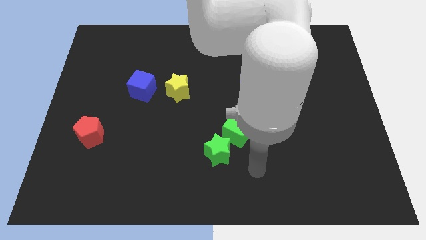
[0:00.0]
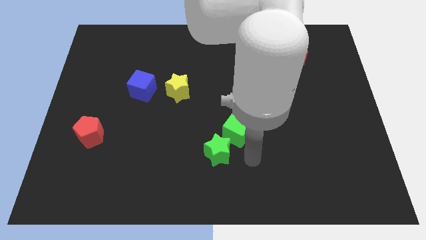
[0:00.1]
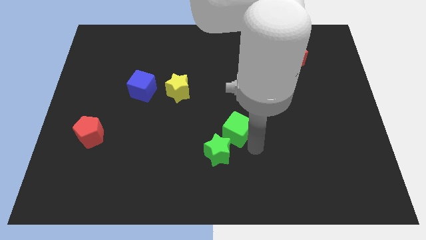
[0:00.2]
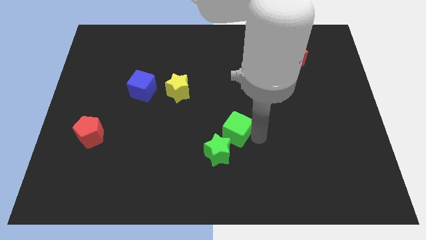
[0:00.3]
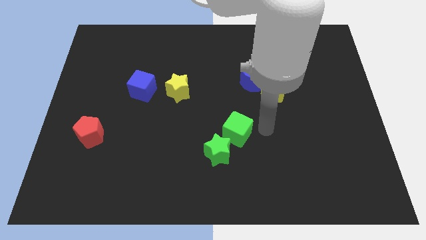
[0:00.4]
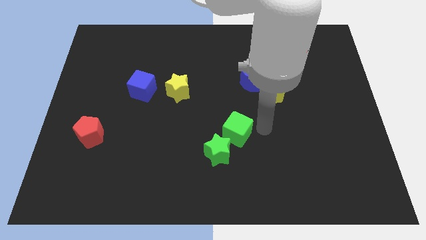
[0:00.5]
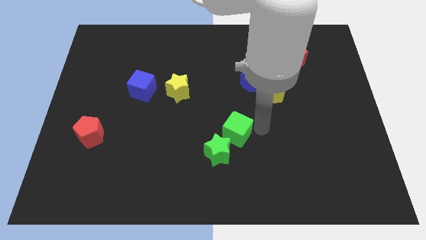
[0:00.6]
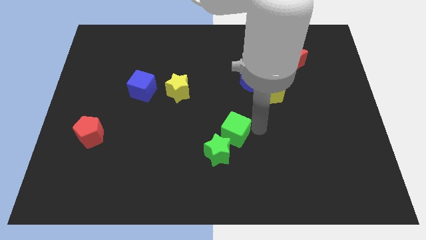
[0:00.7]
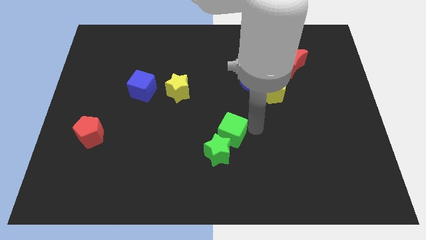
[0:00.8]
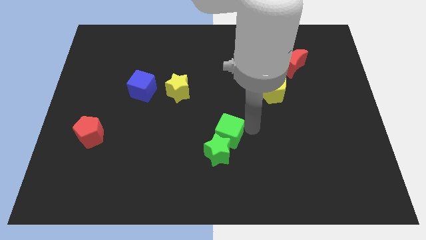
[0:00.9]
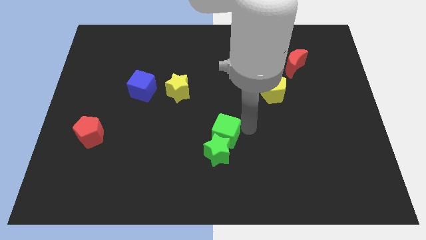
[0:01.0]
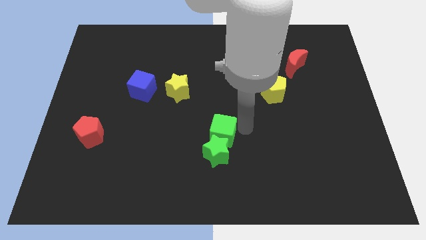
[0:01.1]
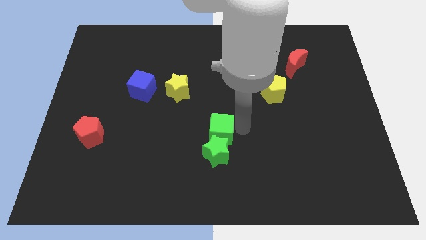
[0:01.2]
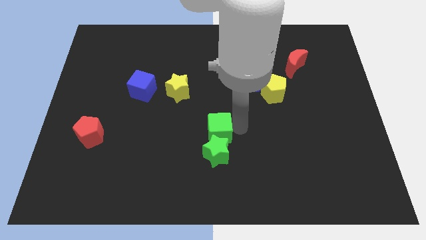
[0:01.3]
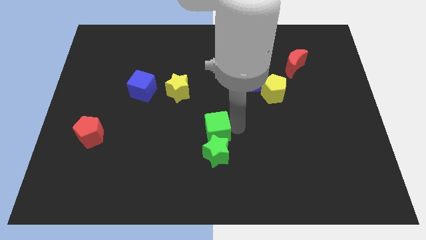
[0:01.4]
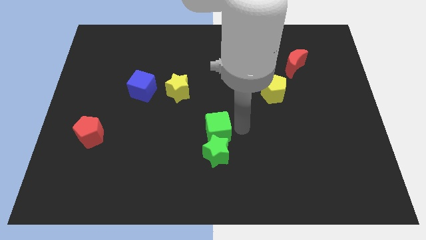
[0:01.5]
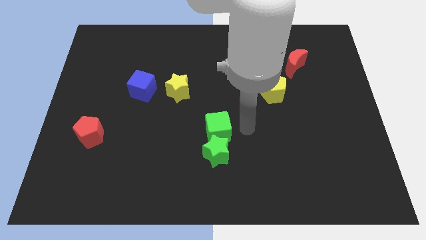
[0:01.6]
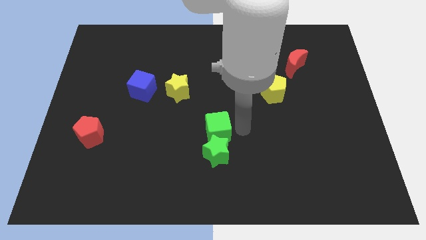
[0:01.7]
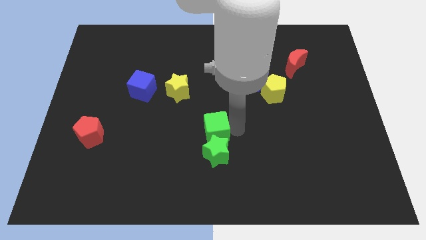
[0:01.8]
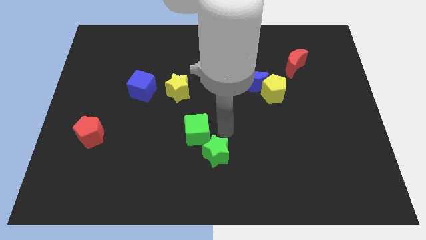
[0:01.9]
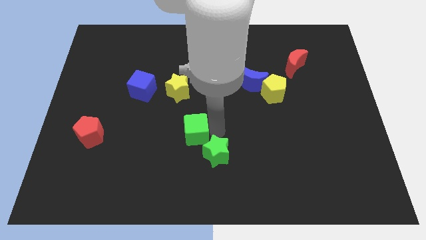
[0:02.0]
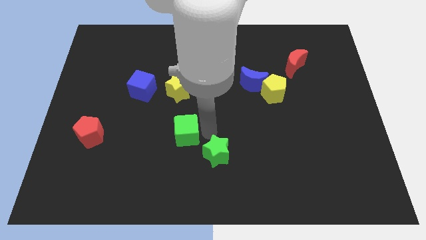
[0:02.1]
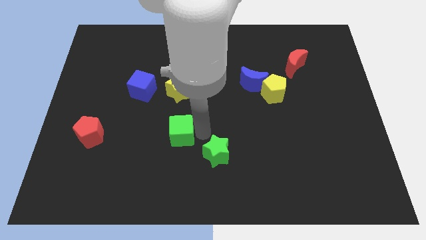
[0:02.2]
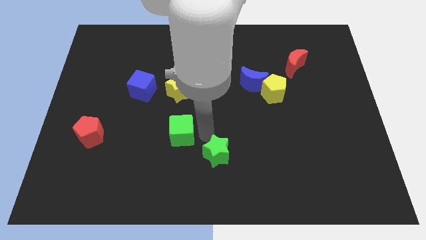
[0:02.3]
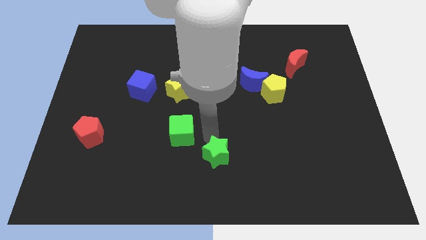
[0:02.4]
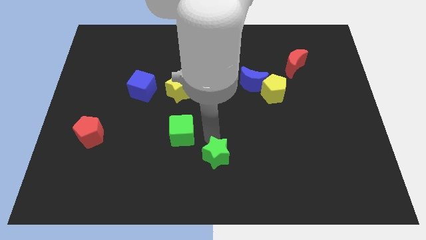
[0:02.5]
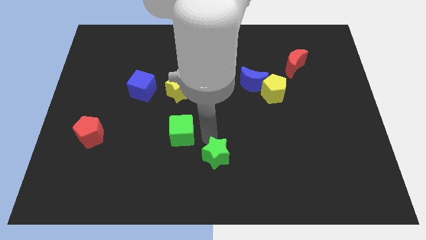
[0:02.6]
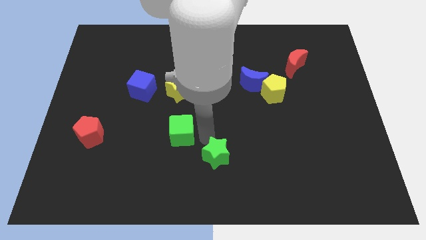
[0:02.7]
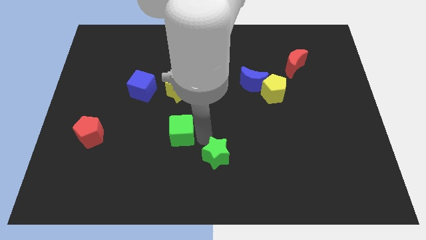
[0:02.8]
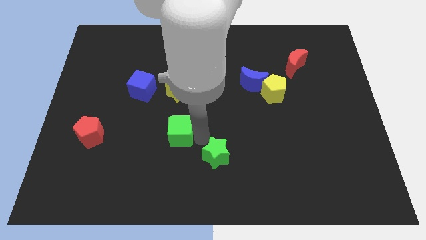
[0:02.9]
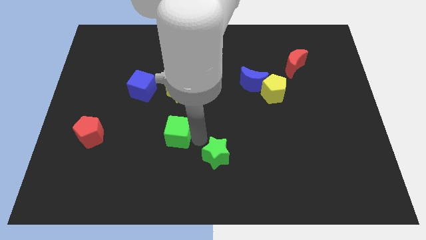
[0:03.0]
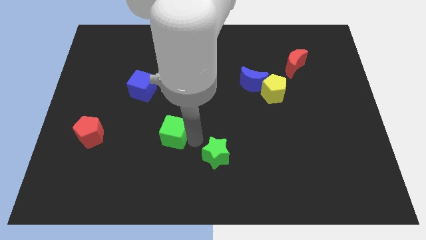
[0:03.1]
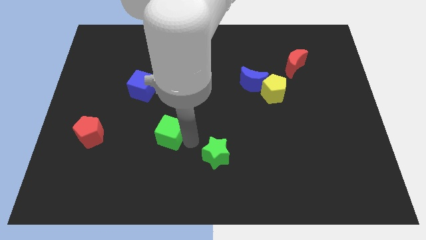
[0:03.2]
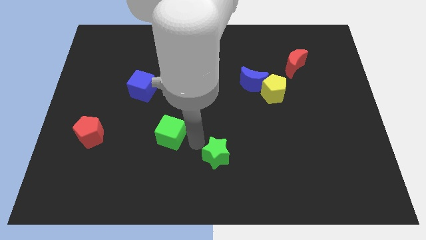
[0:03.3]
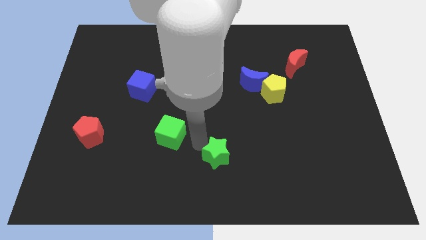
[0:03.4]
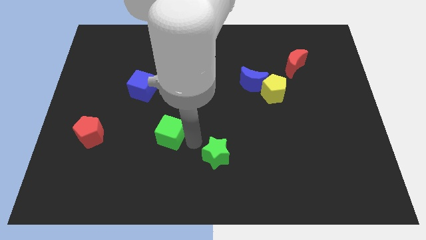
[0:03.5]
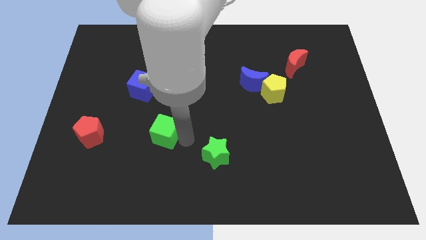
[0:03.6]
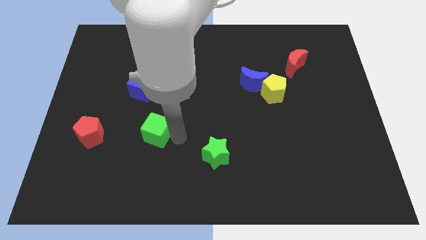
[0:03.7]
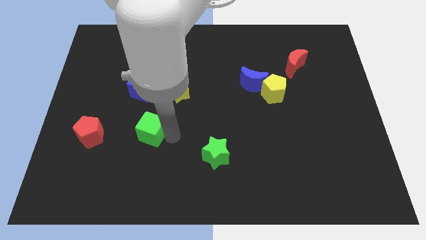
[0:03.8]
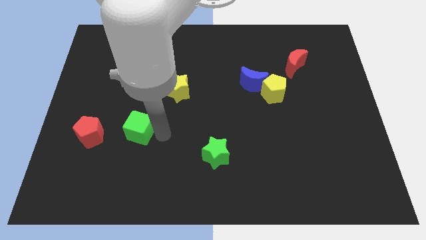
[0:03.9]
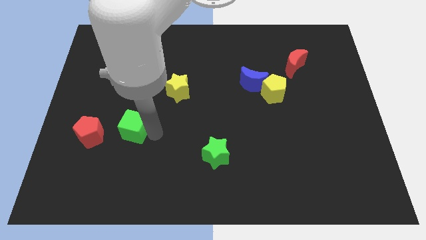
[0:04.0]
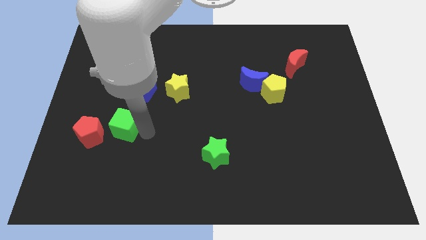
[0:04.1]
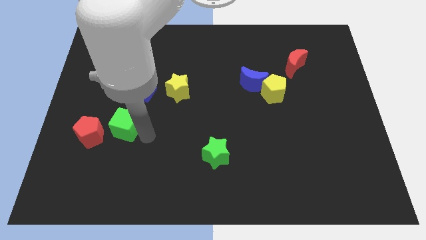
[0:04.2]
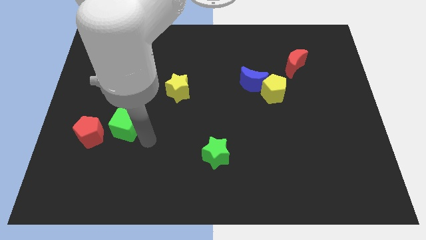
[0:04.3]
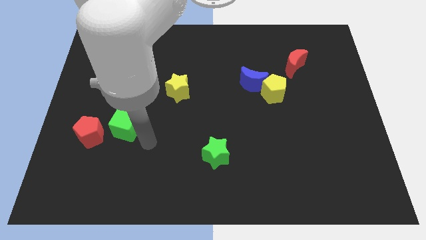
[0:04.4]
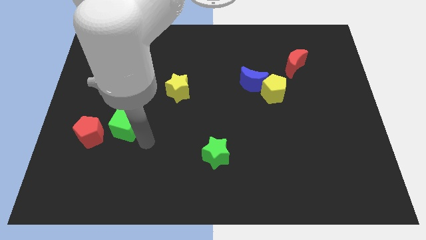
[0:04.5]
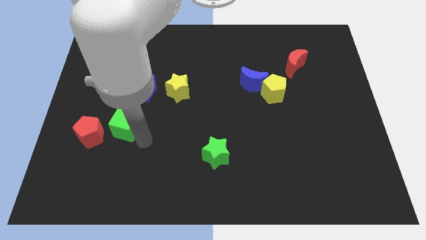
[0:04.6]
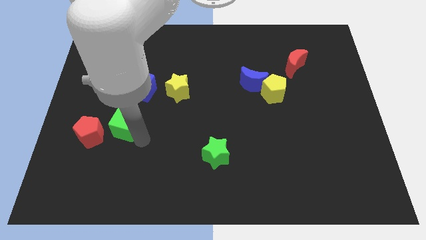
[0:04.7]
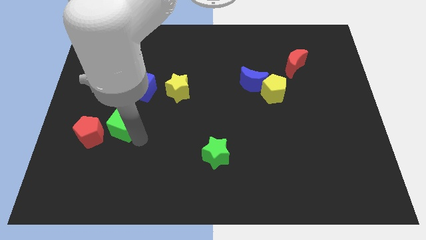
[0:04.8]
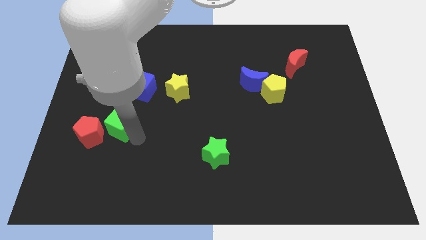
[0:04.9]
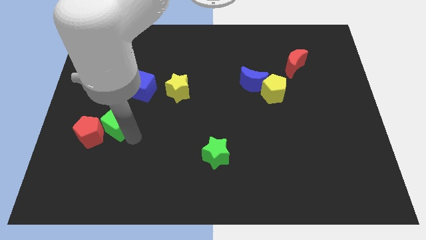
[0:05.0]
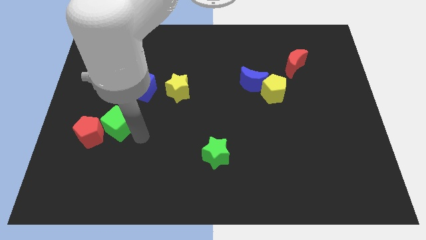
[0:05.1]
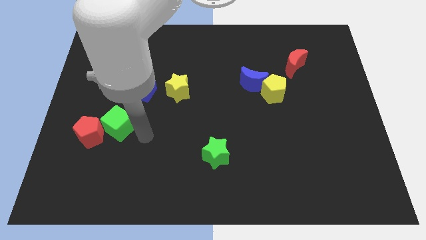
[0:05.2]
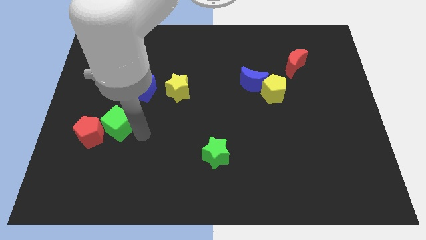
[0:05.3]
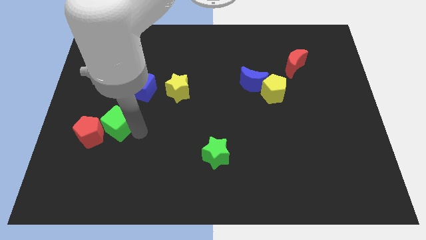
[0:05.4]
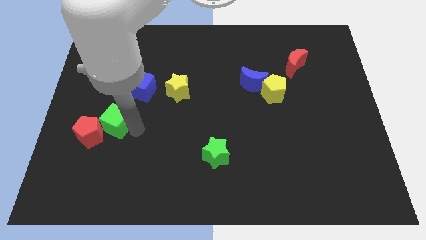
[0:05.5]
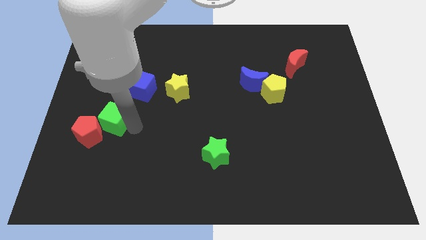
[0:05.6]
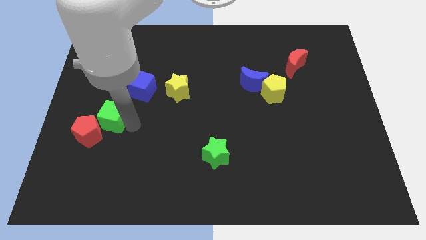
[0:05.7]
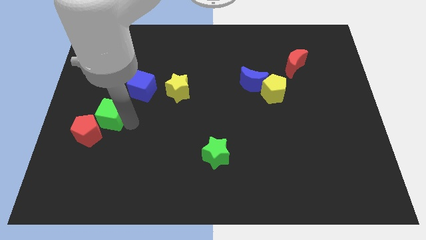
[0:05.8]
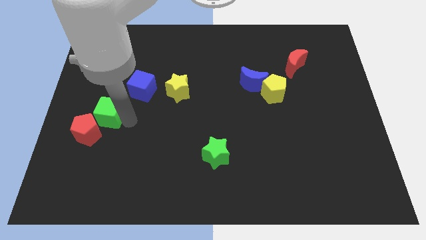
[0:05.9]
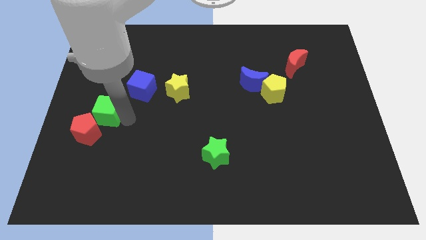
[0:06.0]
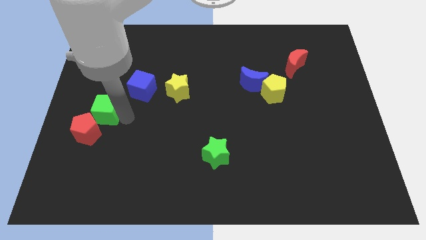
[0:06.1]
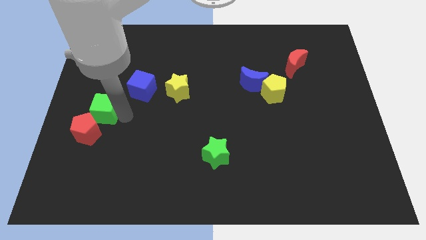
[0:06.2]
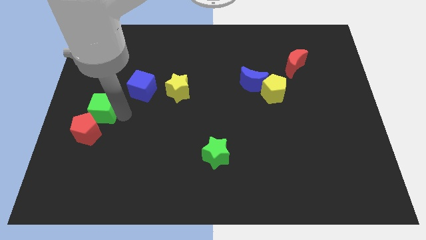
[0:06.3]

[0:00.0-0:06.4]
put the green cube to the left side of the board
